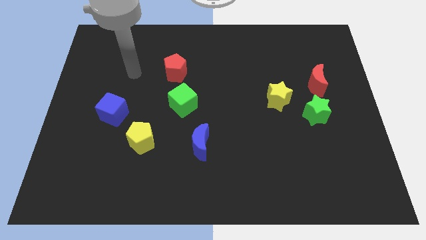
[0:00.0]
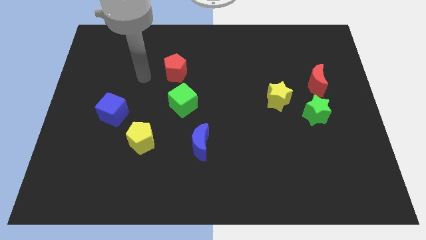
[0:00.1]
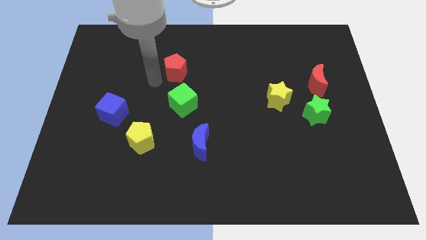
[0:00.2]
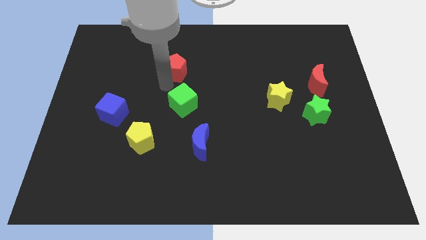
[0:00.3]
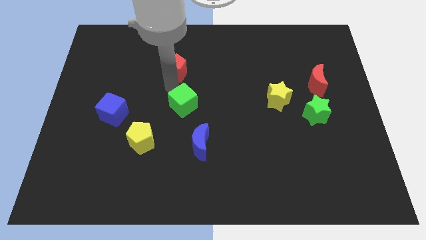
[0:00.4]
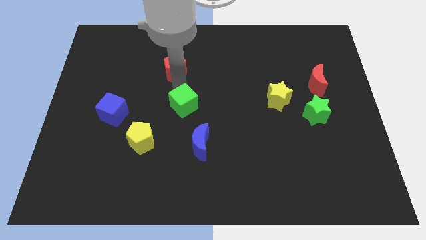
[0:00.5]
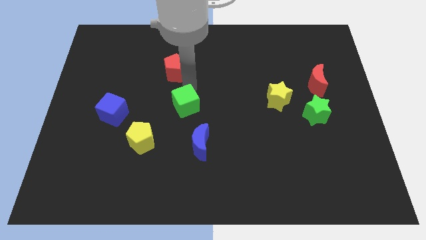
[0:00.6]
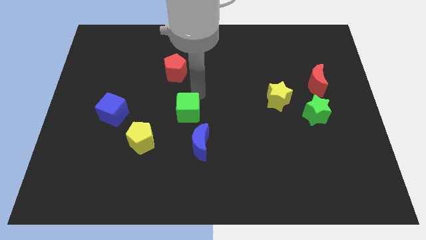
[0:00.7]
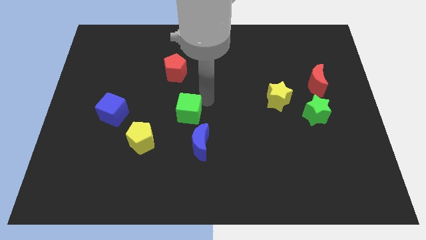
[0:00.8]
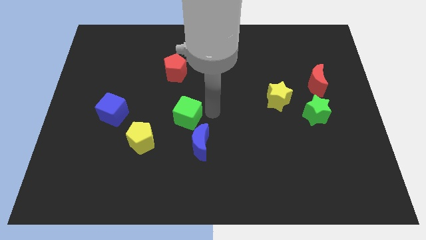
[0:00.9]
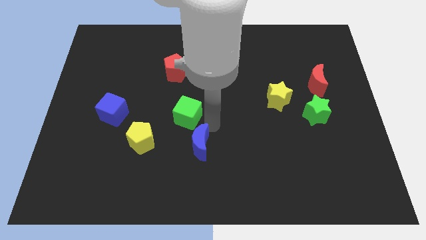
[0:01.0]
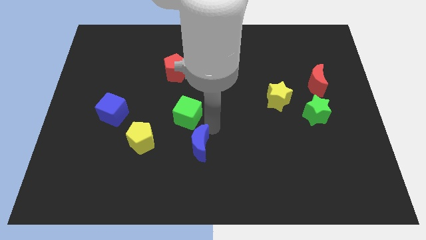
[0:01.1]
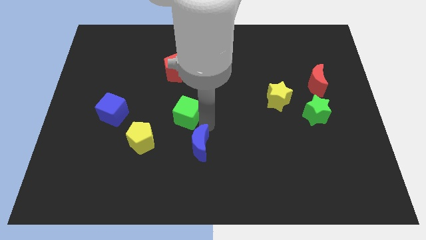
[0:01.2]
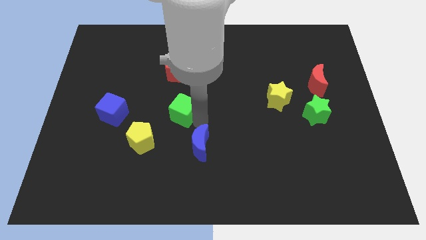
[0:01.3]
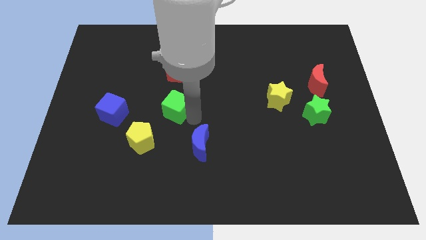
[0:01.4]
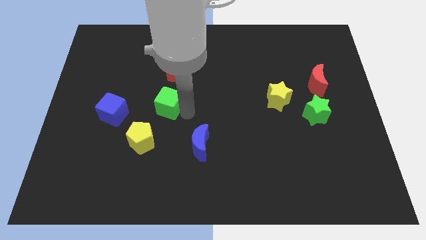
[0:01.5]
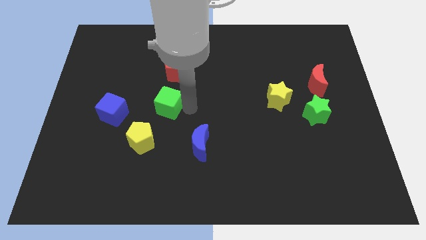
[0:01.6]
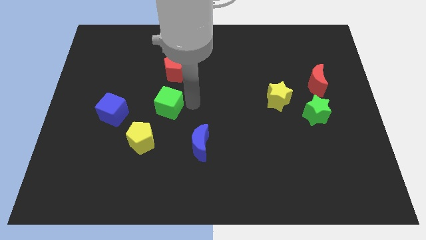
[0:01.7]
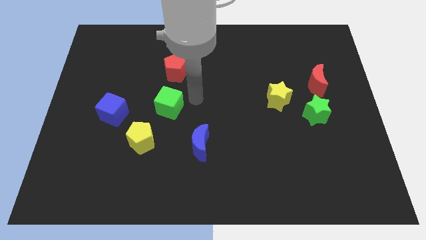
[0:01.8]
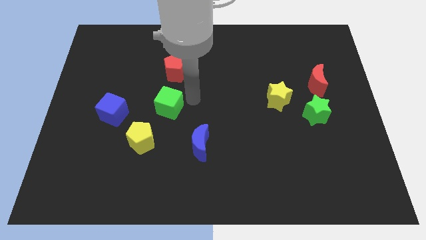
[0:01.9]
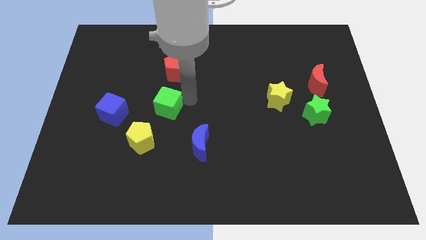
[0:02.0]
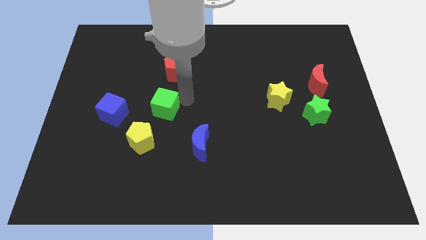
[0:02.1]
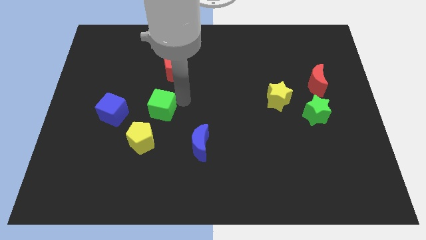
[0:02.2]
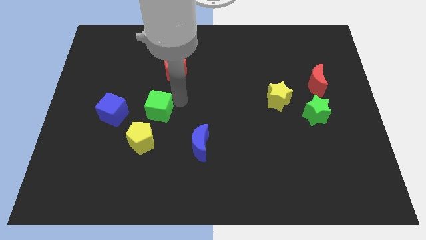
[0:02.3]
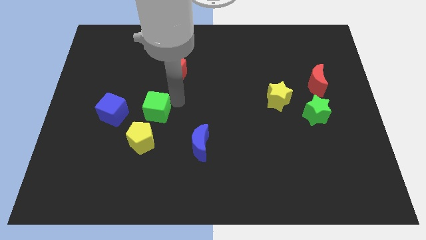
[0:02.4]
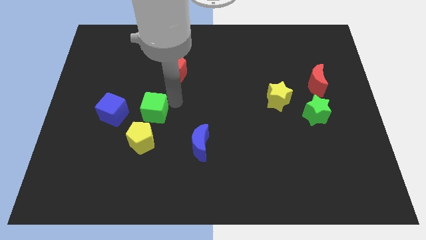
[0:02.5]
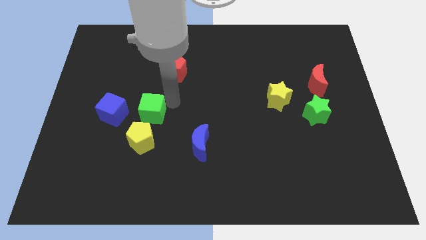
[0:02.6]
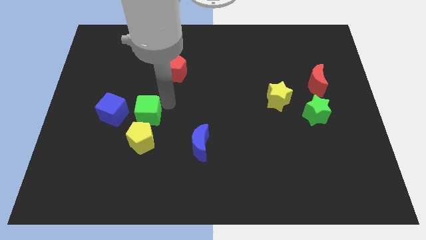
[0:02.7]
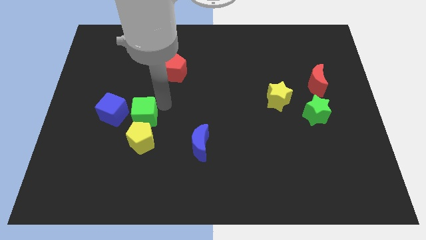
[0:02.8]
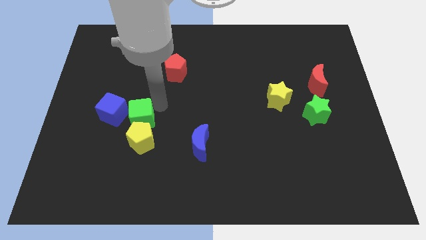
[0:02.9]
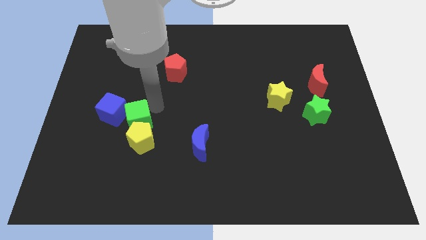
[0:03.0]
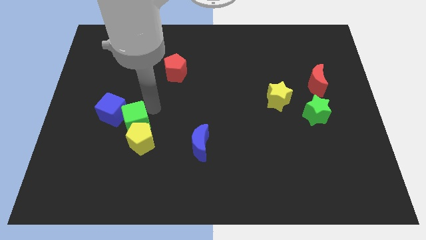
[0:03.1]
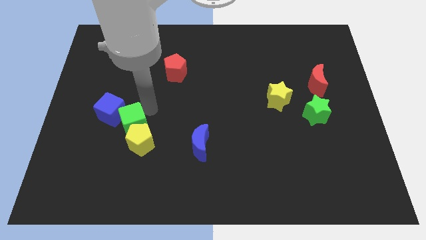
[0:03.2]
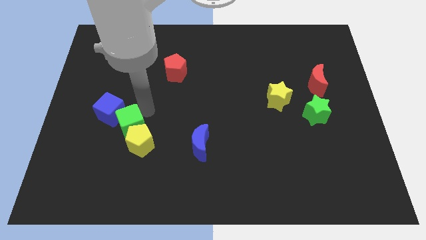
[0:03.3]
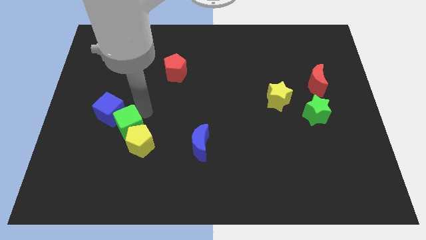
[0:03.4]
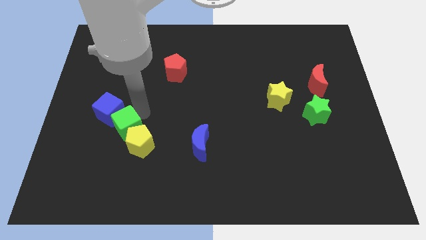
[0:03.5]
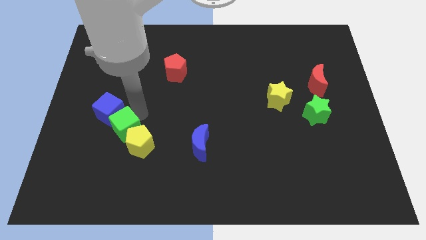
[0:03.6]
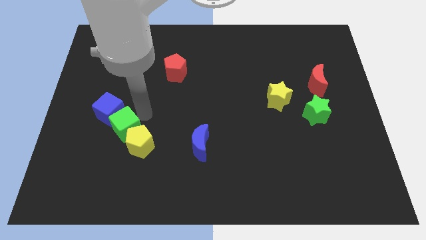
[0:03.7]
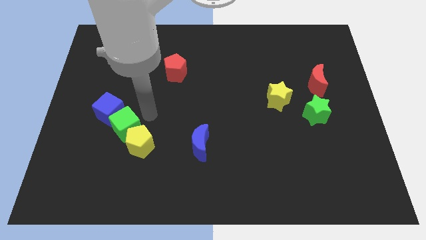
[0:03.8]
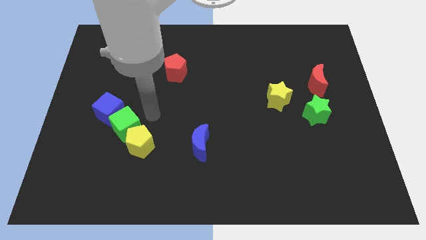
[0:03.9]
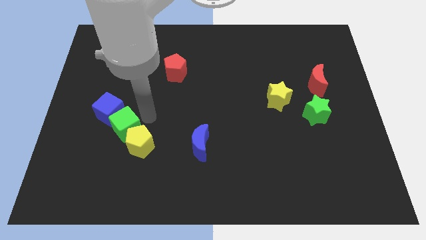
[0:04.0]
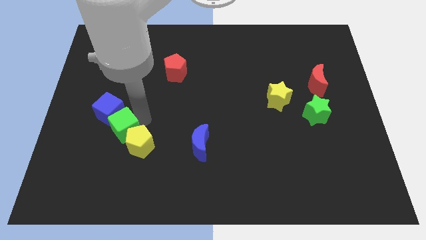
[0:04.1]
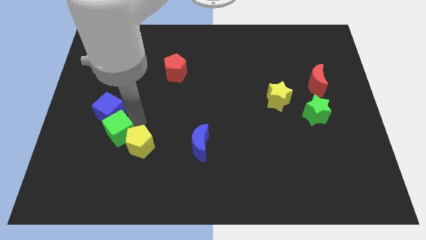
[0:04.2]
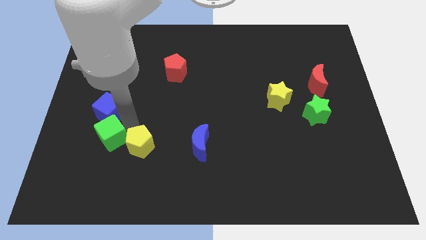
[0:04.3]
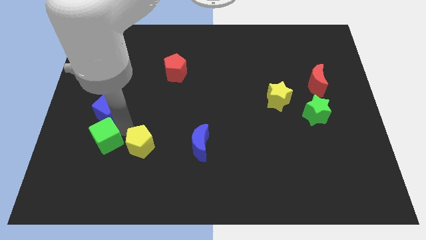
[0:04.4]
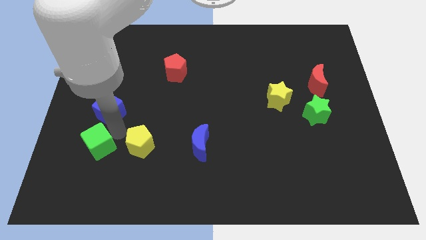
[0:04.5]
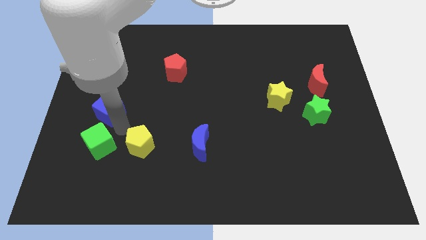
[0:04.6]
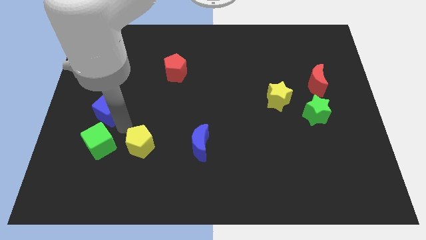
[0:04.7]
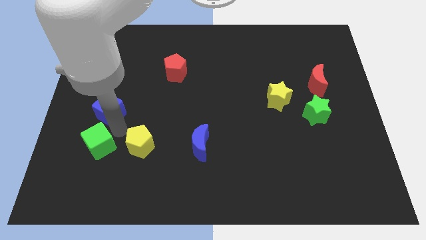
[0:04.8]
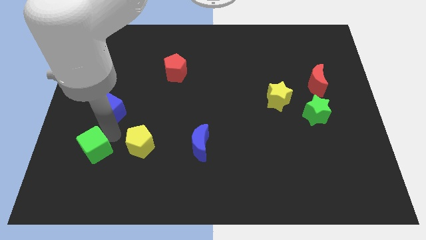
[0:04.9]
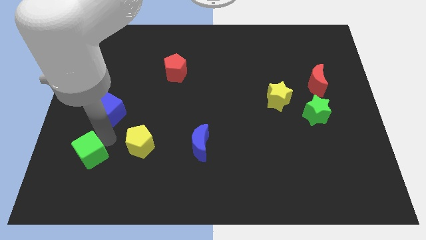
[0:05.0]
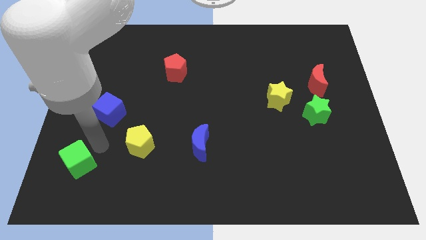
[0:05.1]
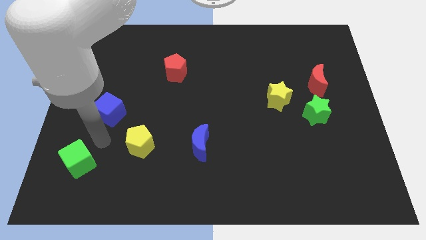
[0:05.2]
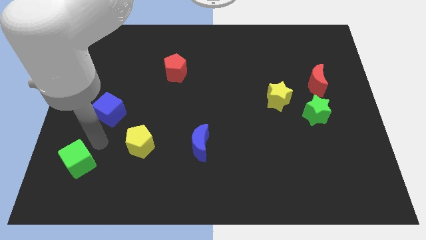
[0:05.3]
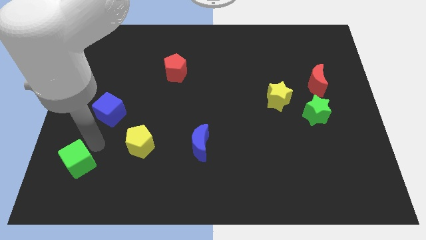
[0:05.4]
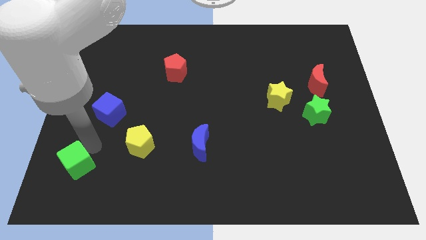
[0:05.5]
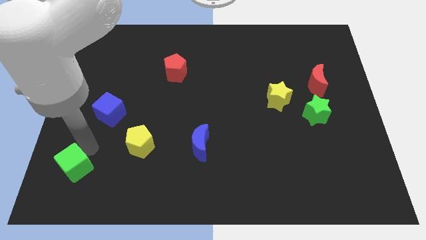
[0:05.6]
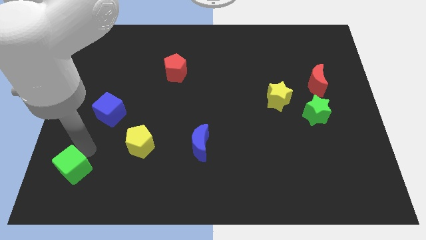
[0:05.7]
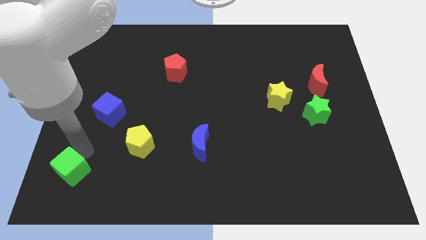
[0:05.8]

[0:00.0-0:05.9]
put the green cube to the bottom left corner
